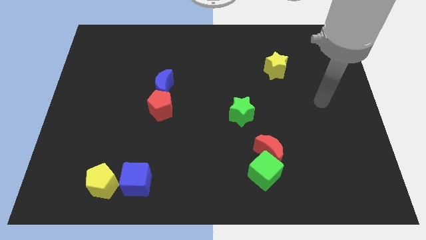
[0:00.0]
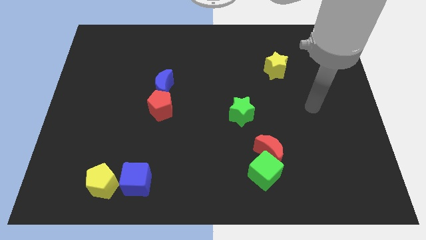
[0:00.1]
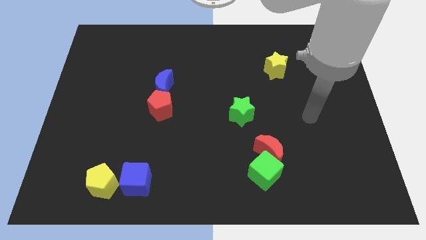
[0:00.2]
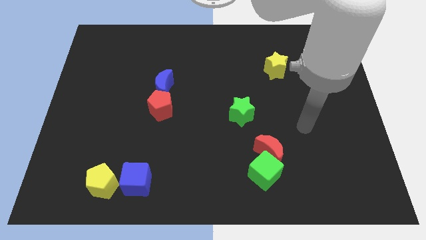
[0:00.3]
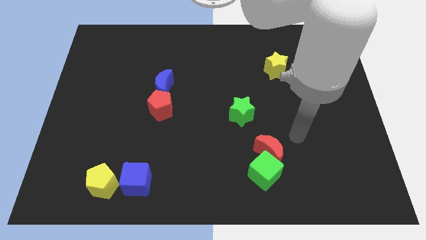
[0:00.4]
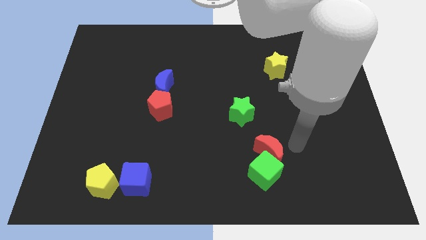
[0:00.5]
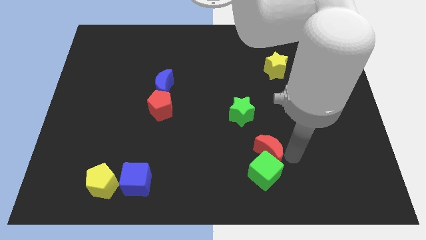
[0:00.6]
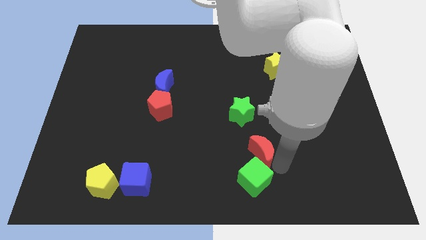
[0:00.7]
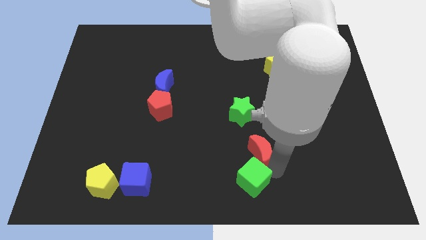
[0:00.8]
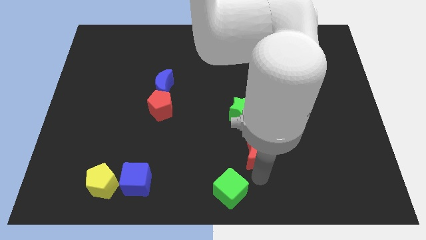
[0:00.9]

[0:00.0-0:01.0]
pull the red moon apart from the green cube

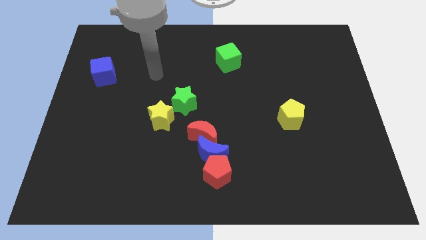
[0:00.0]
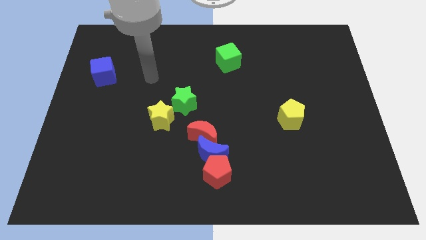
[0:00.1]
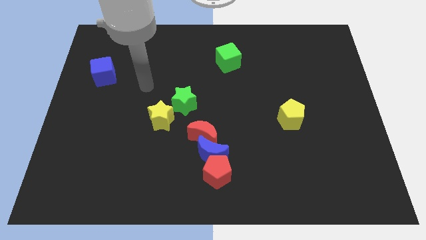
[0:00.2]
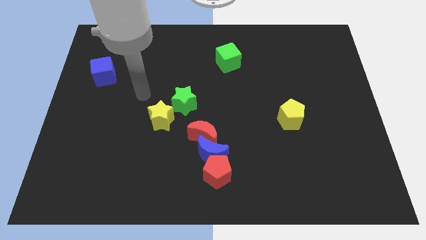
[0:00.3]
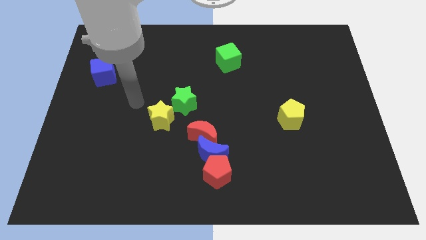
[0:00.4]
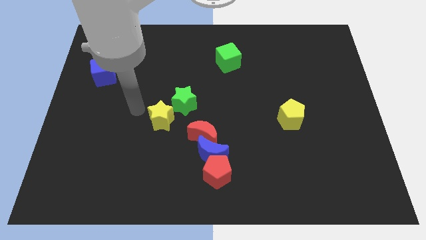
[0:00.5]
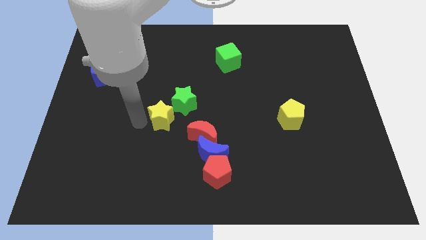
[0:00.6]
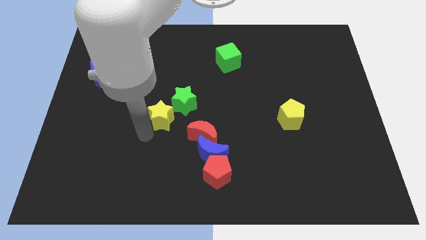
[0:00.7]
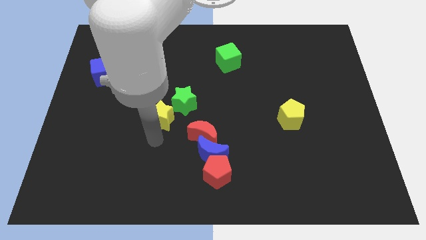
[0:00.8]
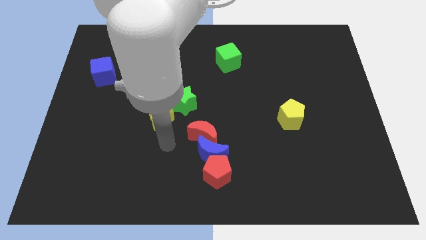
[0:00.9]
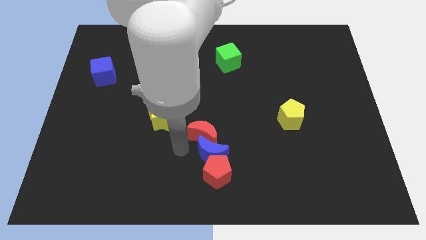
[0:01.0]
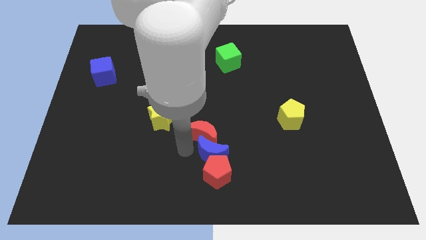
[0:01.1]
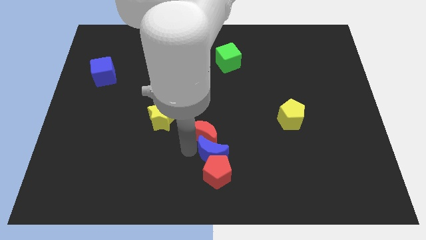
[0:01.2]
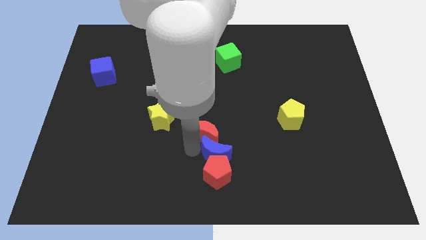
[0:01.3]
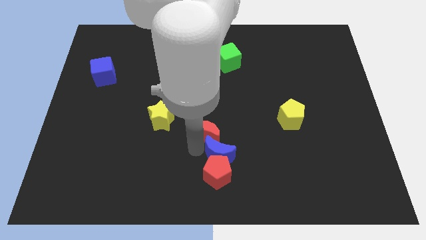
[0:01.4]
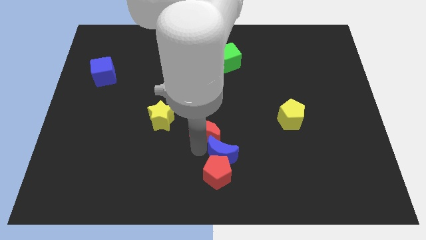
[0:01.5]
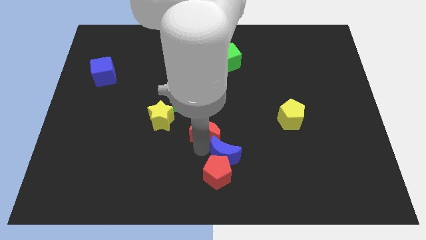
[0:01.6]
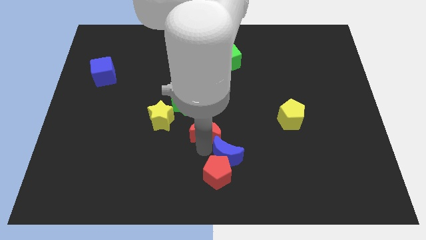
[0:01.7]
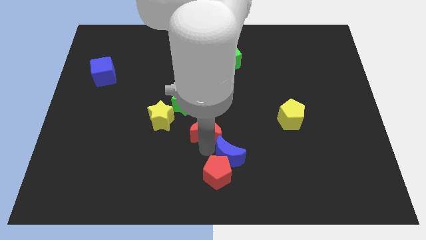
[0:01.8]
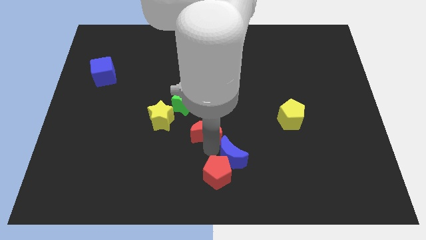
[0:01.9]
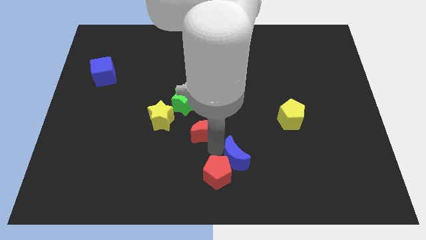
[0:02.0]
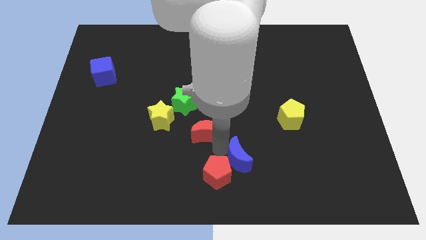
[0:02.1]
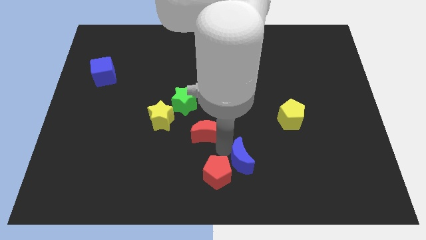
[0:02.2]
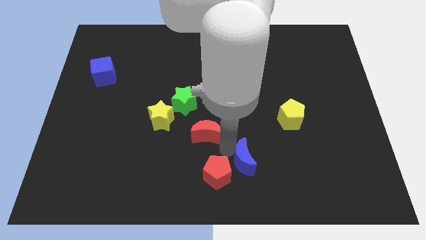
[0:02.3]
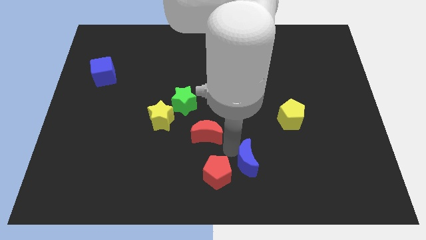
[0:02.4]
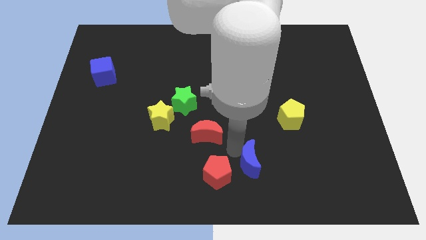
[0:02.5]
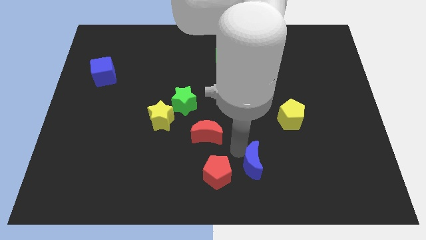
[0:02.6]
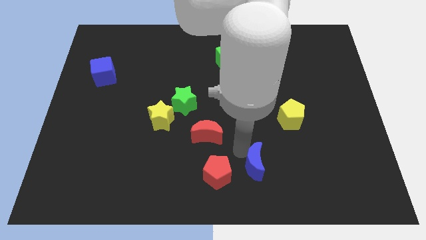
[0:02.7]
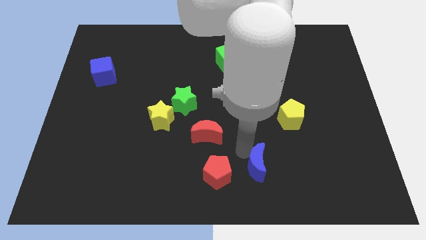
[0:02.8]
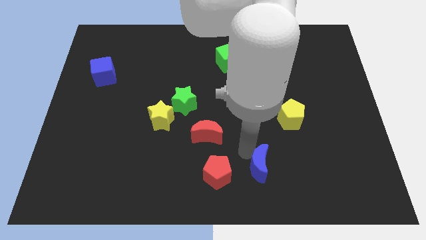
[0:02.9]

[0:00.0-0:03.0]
separate the blue moon from the red pentagon and red moon

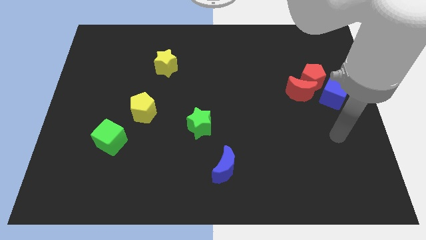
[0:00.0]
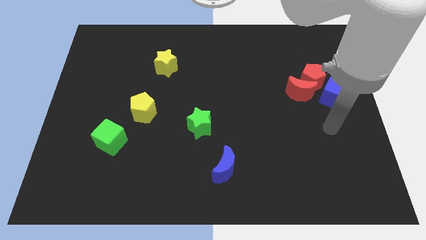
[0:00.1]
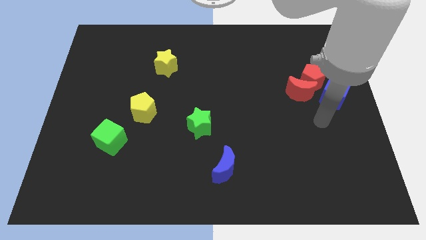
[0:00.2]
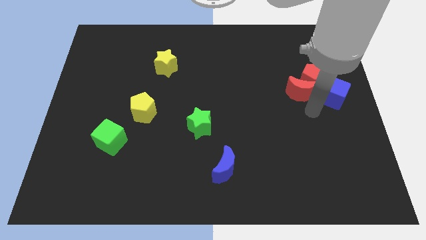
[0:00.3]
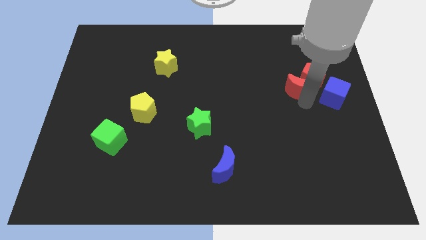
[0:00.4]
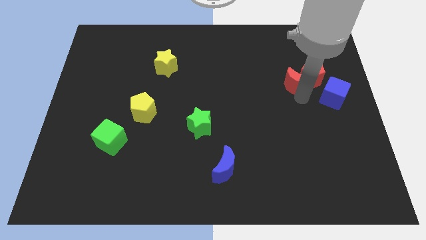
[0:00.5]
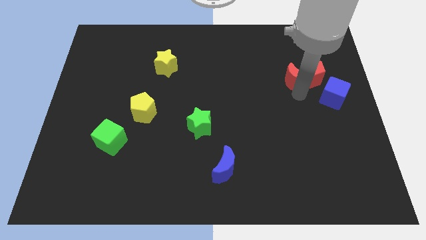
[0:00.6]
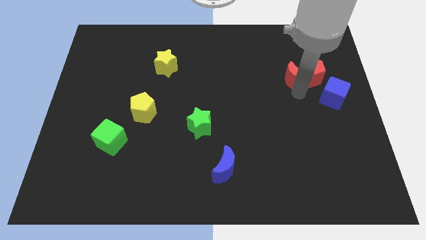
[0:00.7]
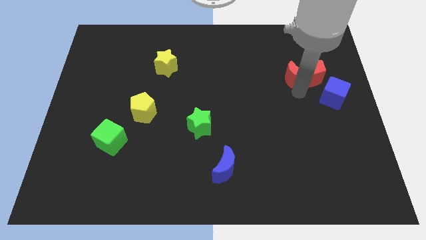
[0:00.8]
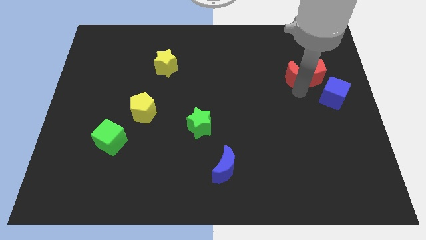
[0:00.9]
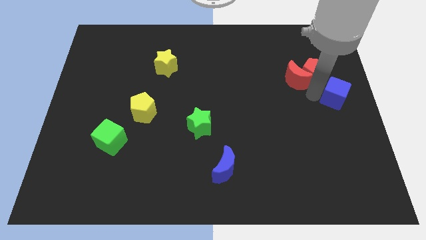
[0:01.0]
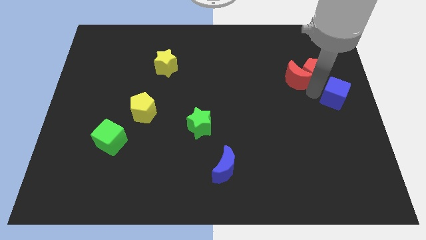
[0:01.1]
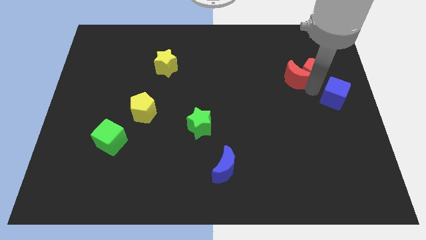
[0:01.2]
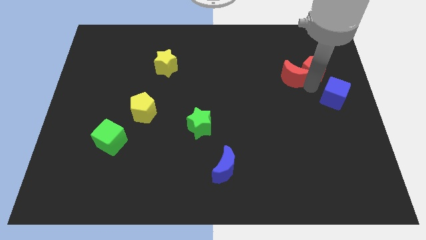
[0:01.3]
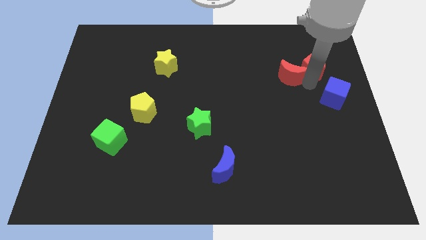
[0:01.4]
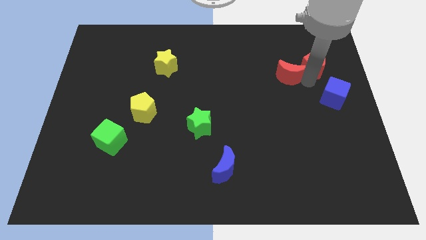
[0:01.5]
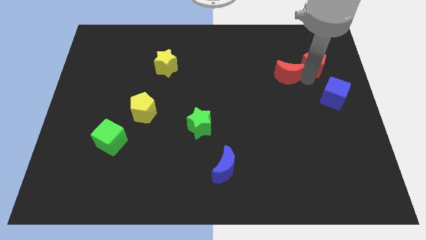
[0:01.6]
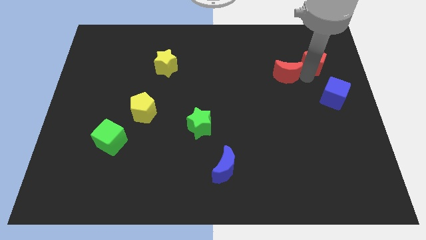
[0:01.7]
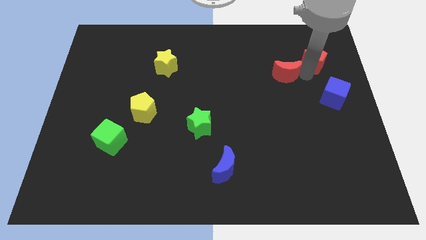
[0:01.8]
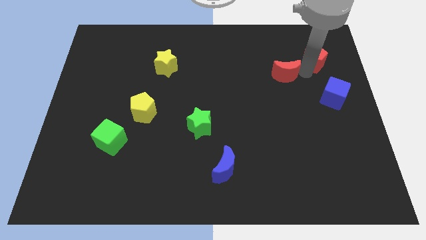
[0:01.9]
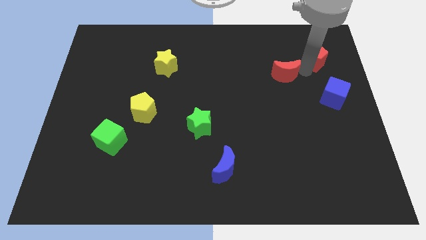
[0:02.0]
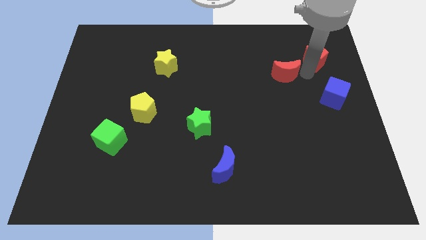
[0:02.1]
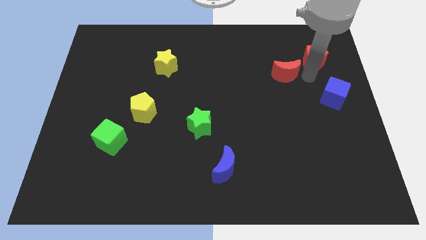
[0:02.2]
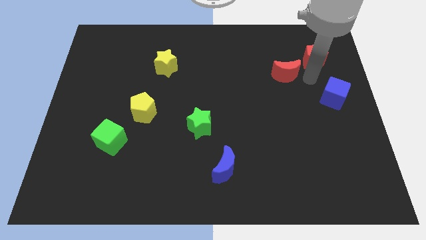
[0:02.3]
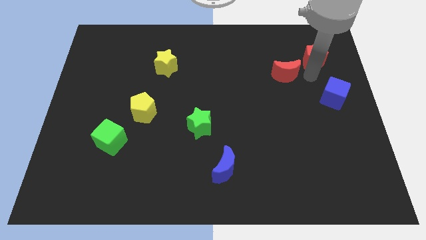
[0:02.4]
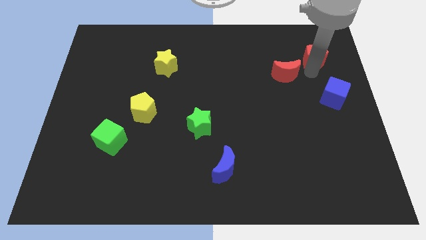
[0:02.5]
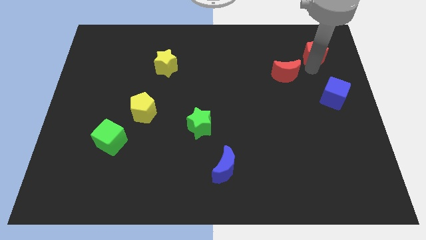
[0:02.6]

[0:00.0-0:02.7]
move the red pentagon away from the red moon and blue cube

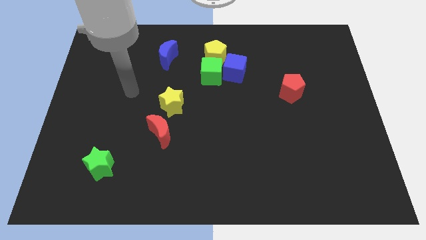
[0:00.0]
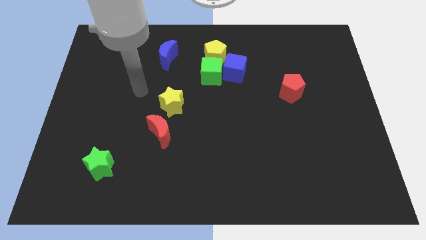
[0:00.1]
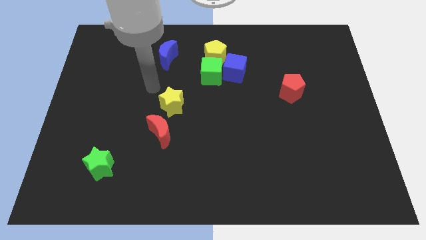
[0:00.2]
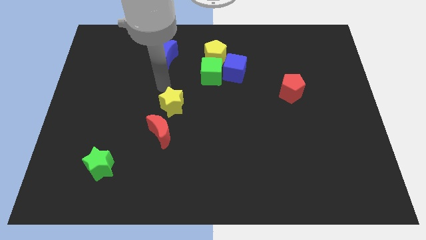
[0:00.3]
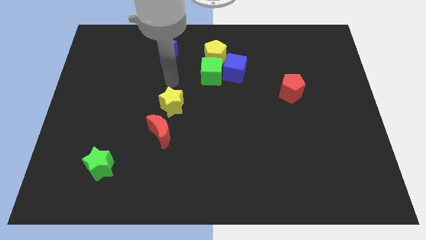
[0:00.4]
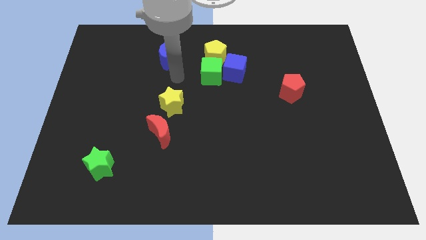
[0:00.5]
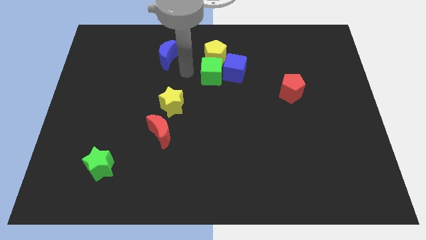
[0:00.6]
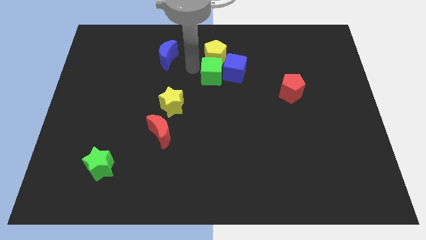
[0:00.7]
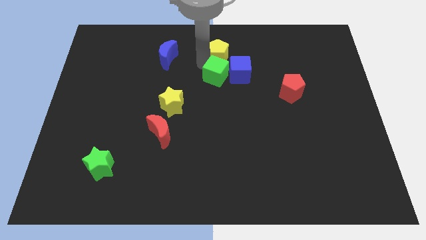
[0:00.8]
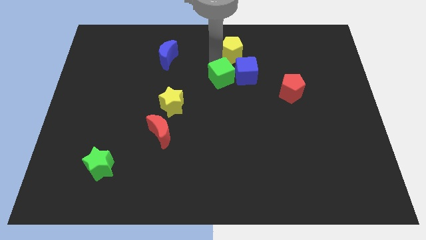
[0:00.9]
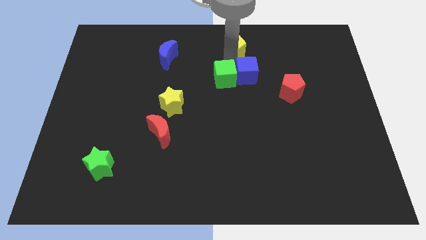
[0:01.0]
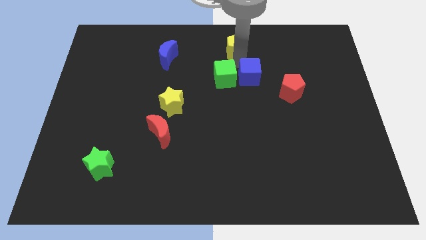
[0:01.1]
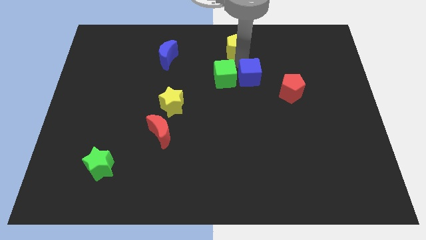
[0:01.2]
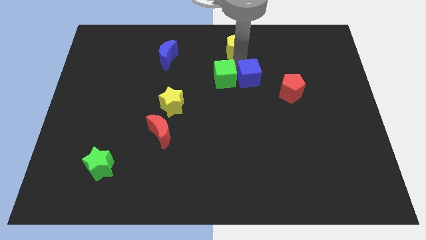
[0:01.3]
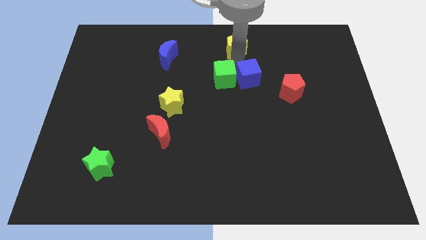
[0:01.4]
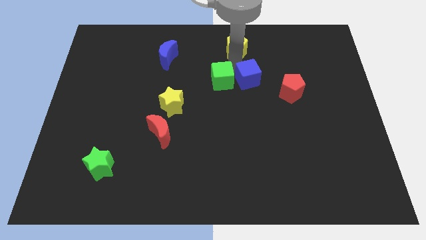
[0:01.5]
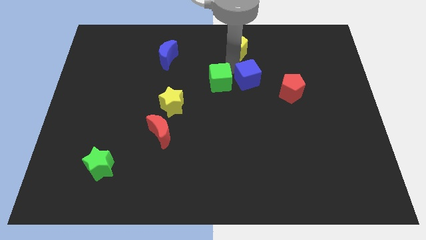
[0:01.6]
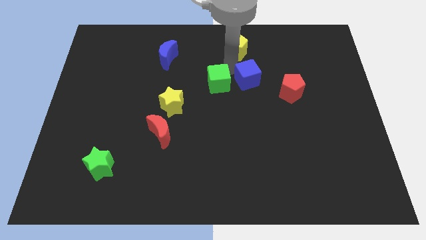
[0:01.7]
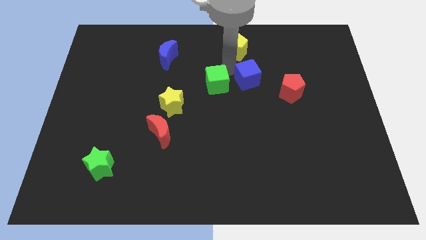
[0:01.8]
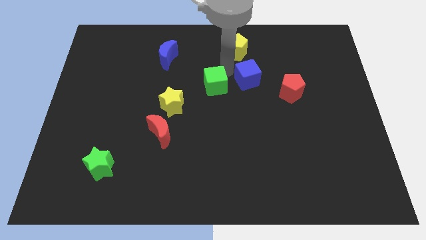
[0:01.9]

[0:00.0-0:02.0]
move the green cube away from the blue cube and yellow pentagon

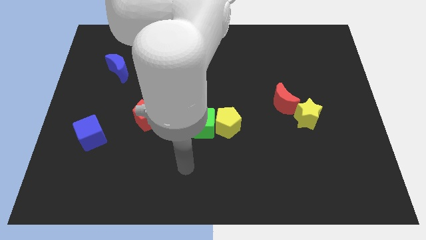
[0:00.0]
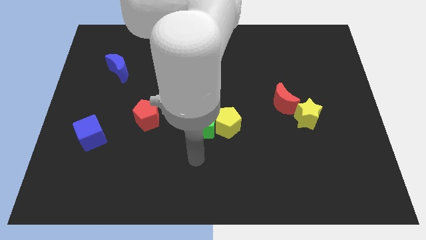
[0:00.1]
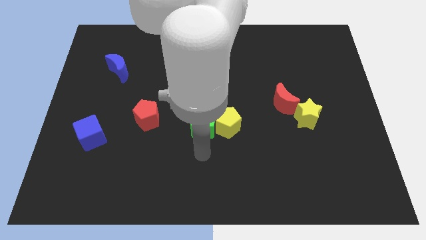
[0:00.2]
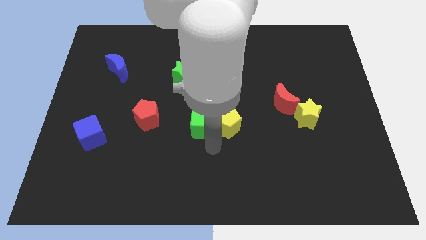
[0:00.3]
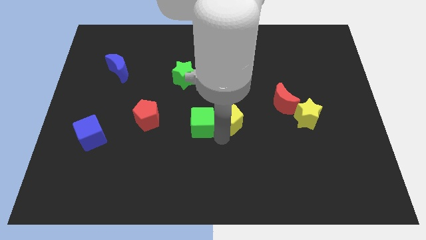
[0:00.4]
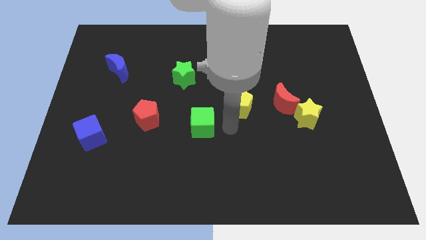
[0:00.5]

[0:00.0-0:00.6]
separate the green cube from the yellow pentagon

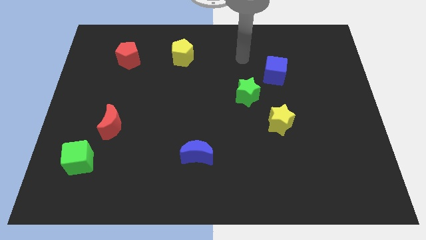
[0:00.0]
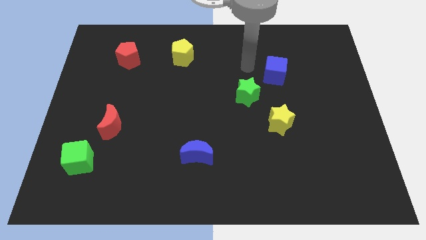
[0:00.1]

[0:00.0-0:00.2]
pull the blue cube apart from the green star
